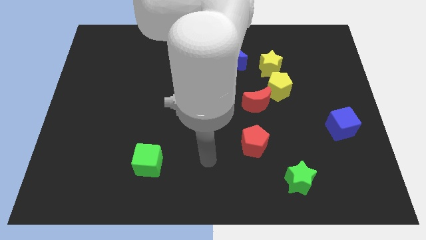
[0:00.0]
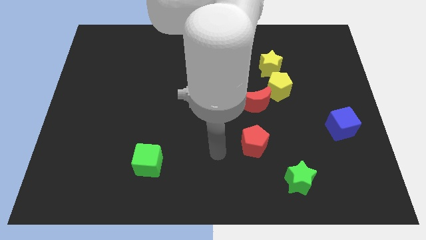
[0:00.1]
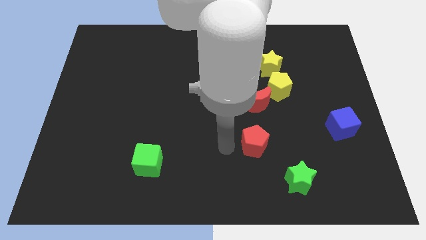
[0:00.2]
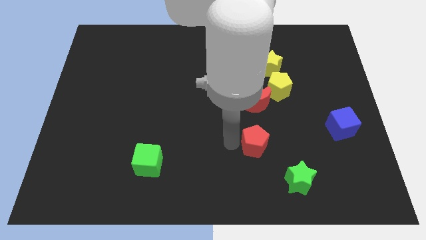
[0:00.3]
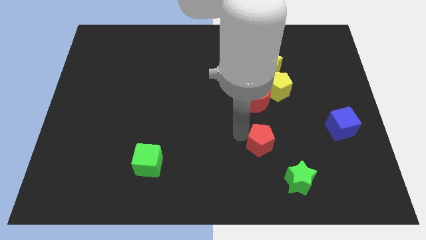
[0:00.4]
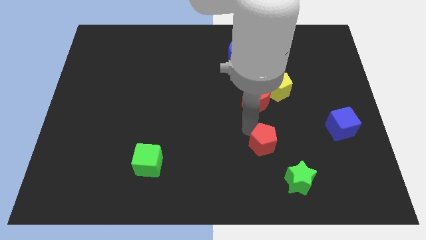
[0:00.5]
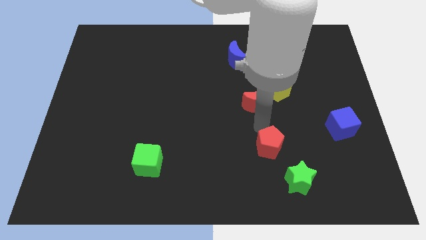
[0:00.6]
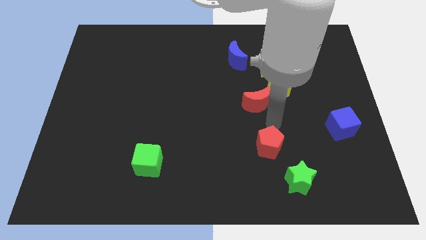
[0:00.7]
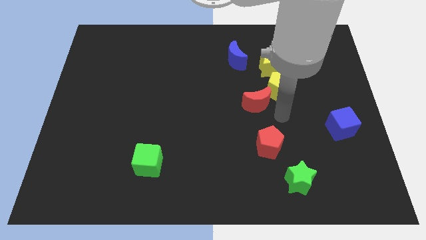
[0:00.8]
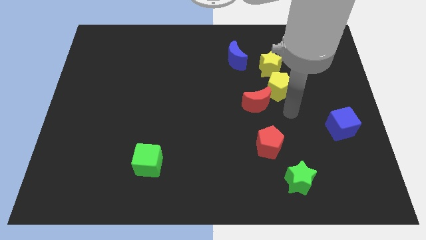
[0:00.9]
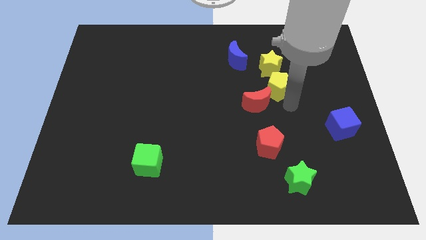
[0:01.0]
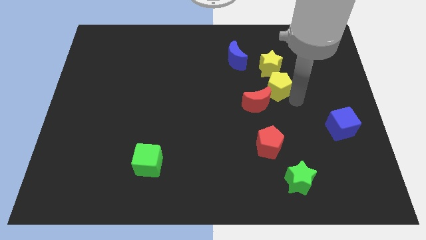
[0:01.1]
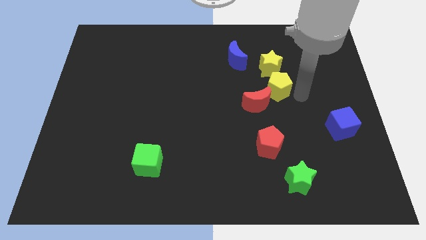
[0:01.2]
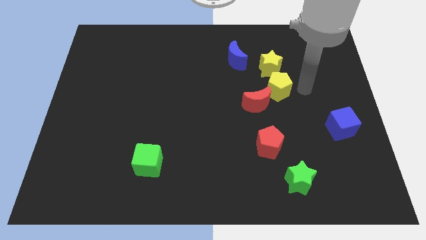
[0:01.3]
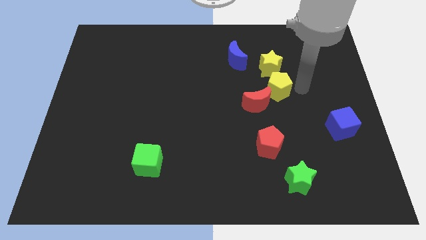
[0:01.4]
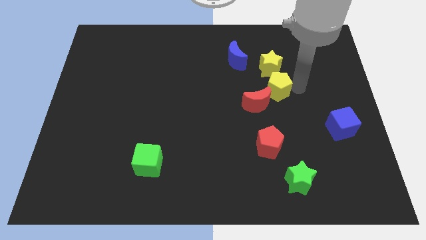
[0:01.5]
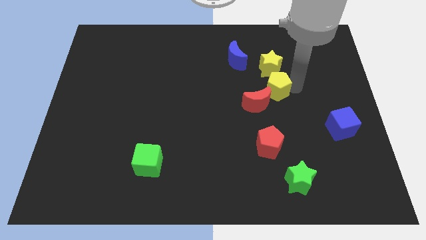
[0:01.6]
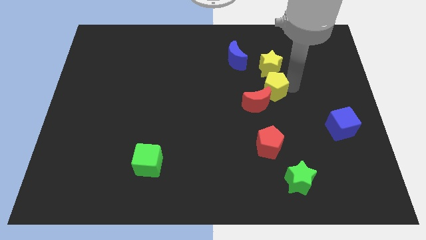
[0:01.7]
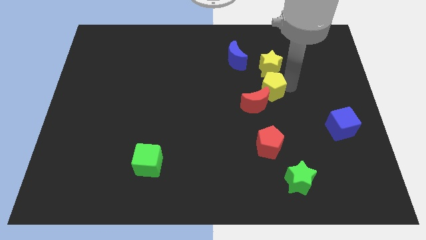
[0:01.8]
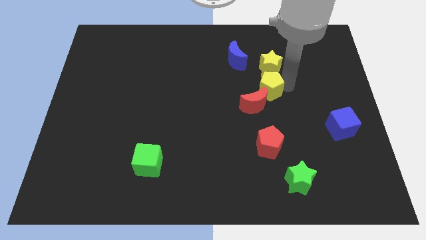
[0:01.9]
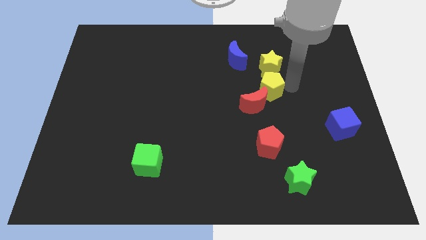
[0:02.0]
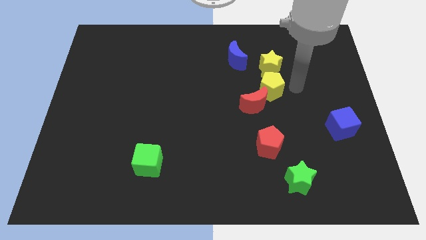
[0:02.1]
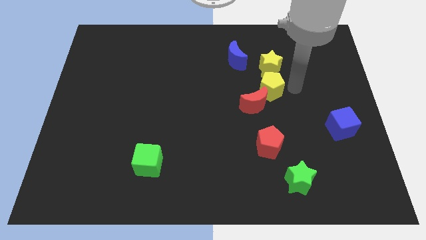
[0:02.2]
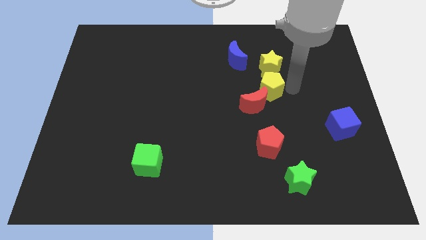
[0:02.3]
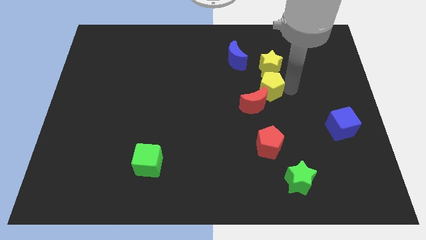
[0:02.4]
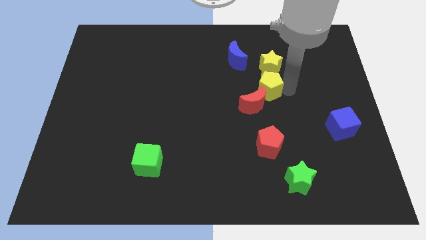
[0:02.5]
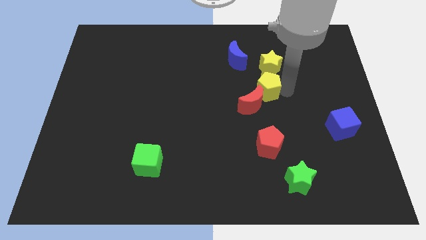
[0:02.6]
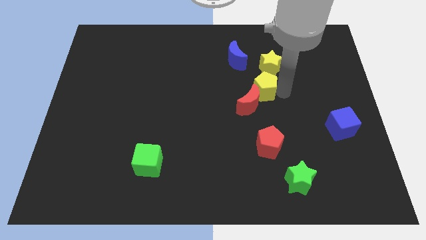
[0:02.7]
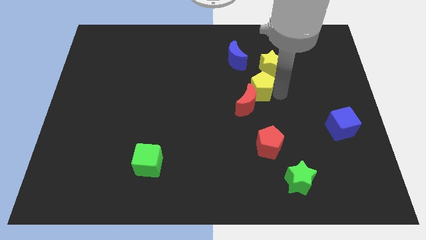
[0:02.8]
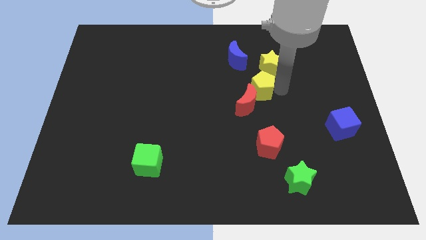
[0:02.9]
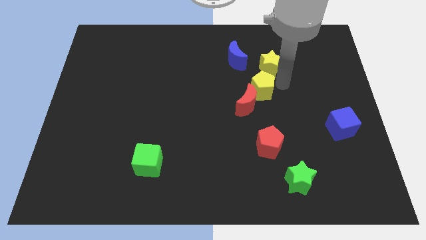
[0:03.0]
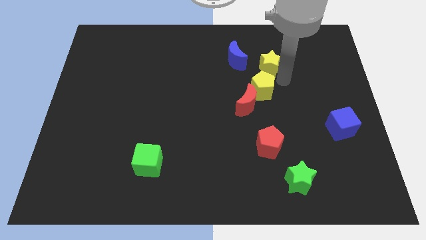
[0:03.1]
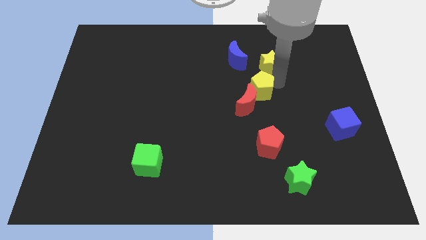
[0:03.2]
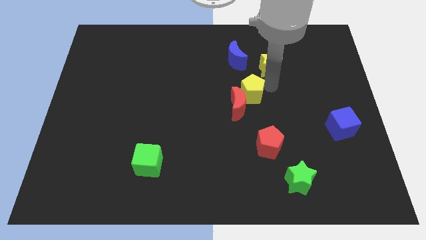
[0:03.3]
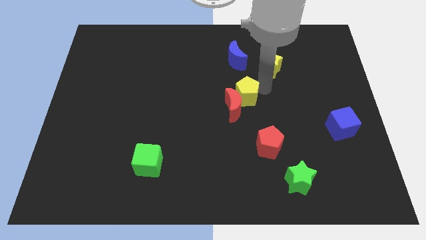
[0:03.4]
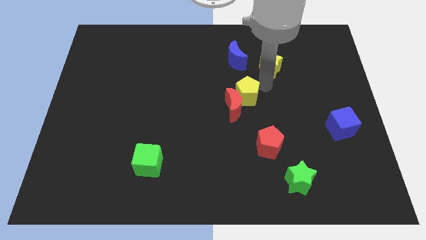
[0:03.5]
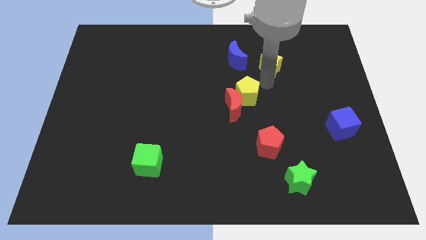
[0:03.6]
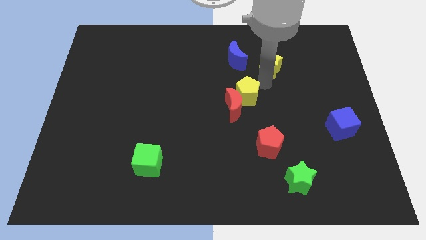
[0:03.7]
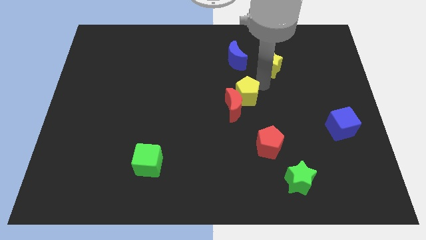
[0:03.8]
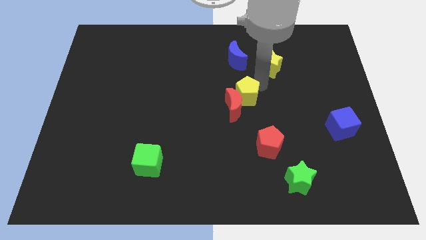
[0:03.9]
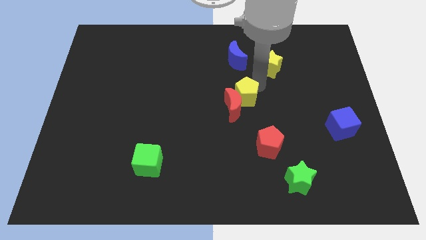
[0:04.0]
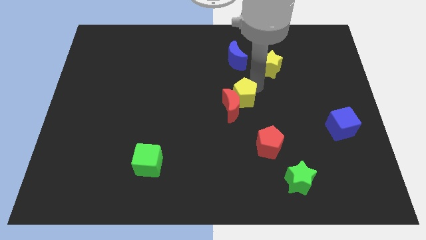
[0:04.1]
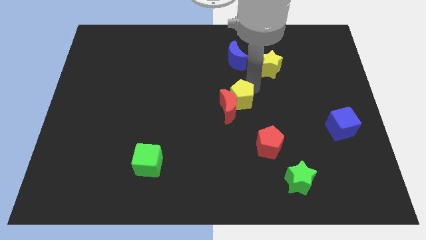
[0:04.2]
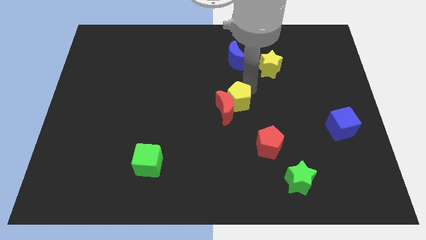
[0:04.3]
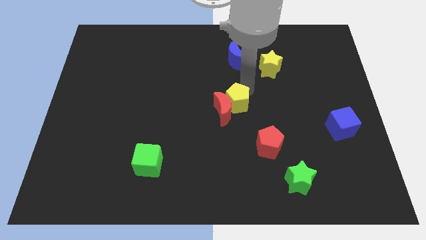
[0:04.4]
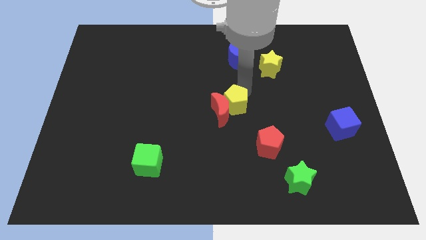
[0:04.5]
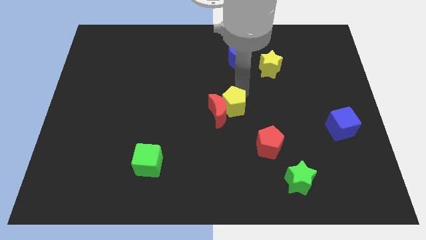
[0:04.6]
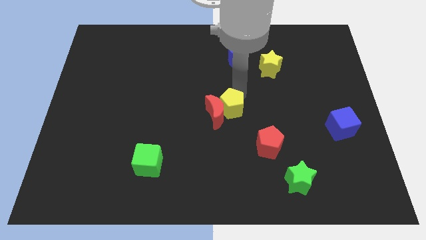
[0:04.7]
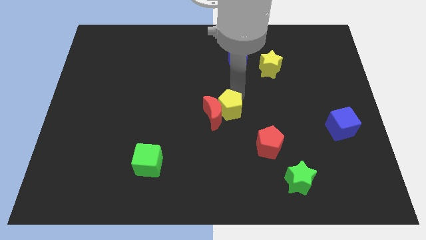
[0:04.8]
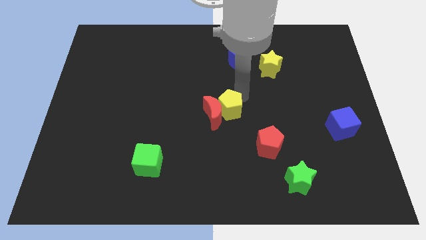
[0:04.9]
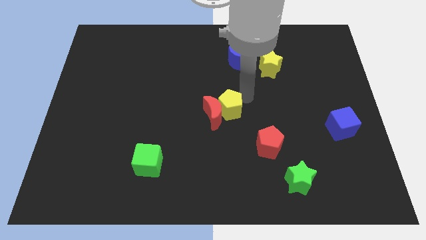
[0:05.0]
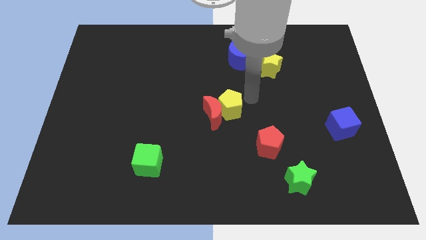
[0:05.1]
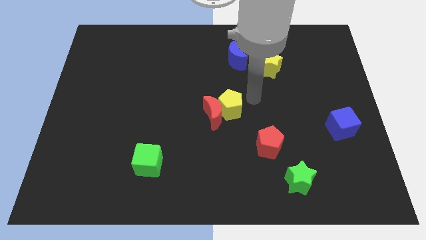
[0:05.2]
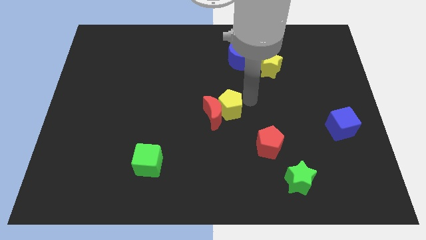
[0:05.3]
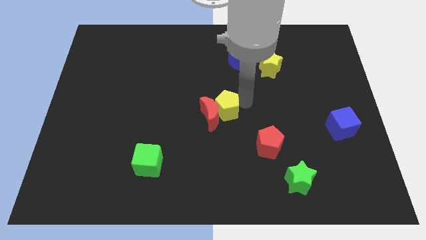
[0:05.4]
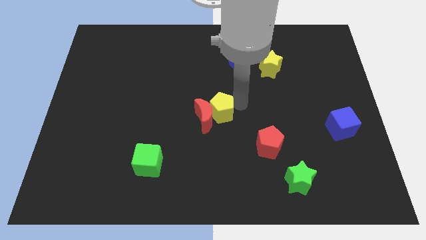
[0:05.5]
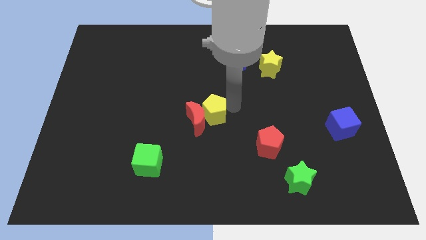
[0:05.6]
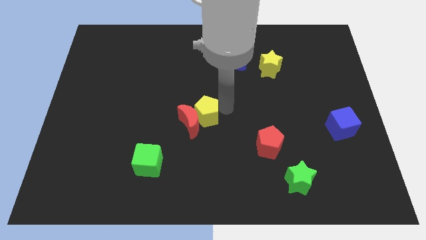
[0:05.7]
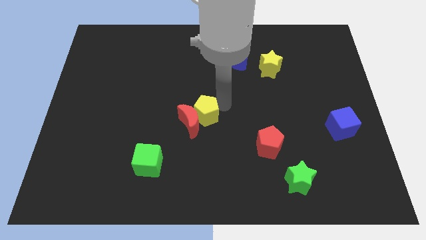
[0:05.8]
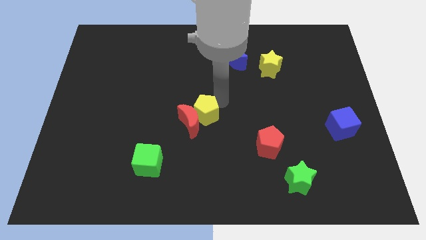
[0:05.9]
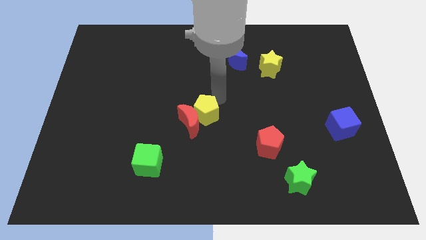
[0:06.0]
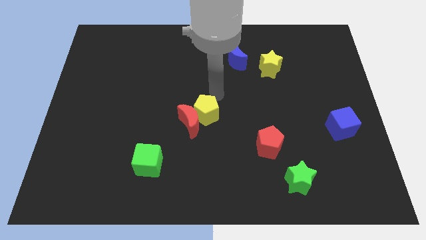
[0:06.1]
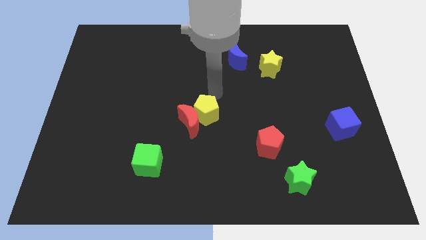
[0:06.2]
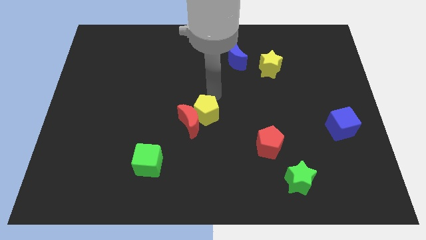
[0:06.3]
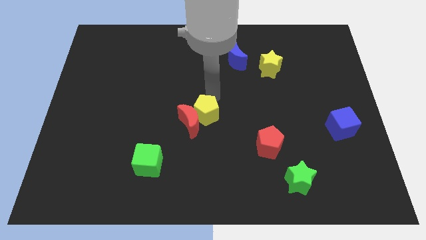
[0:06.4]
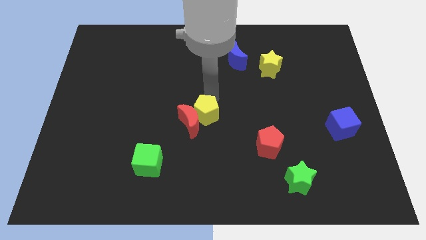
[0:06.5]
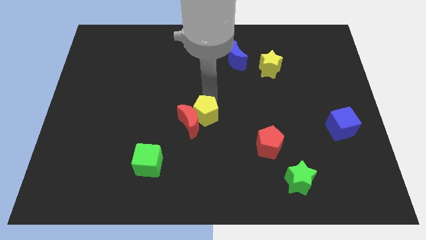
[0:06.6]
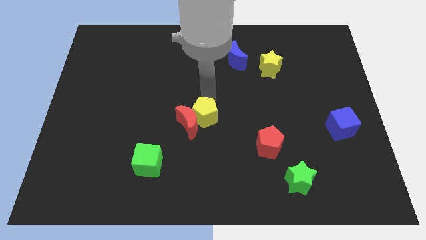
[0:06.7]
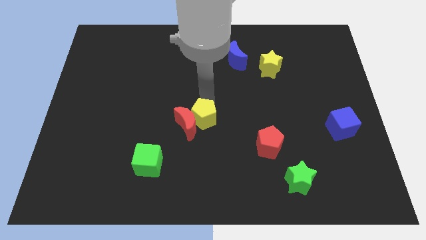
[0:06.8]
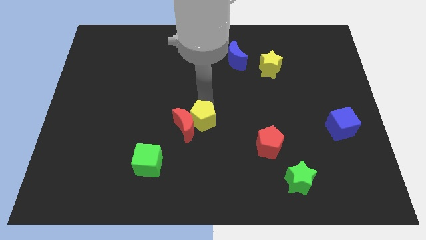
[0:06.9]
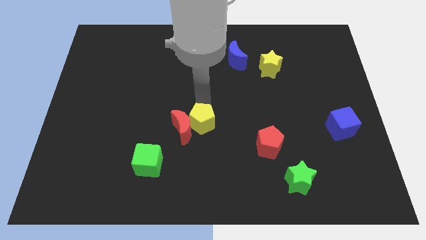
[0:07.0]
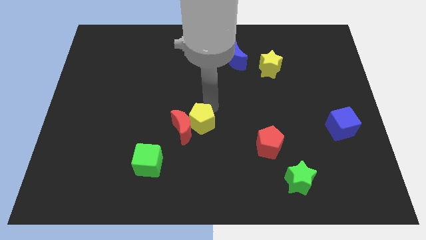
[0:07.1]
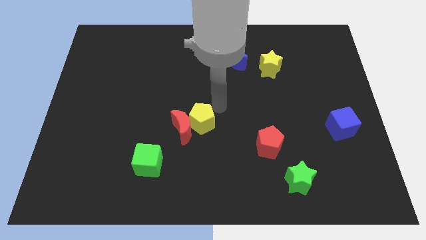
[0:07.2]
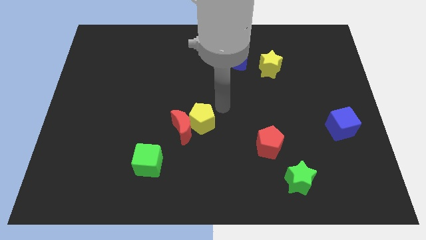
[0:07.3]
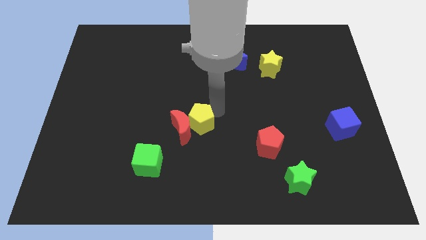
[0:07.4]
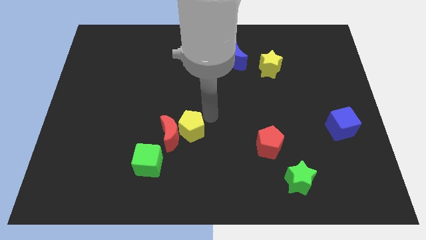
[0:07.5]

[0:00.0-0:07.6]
slide the yellow pentagon to the top right side of the green cube

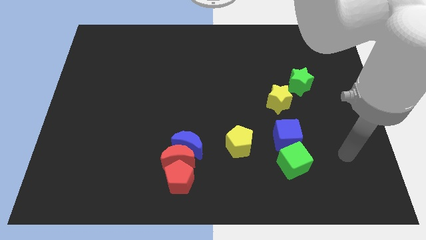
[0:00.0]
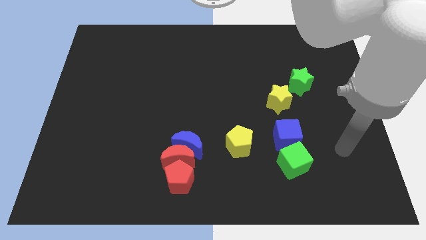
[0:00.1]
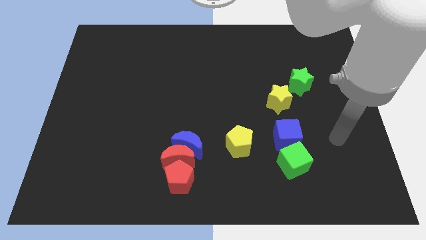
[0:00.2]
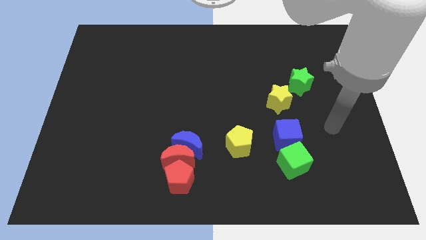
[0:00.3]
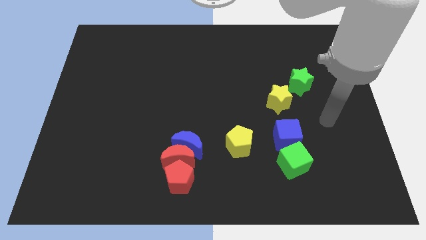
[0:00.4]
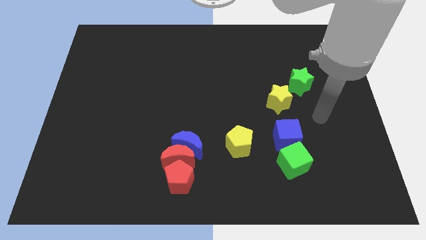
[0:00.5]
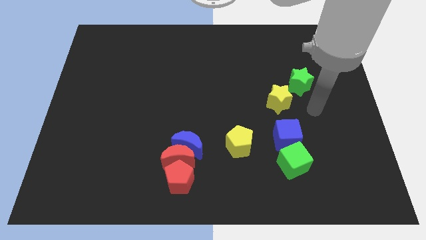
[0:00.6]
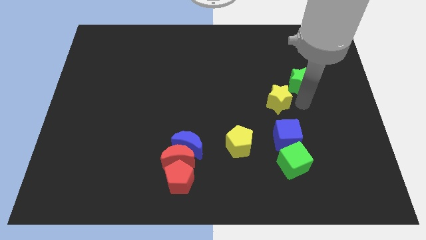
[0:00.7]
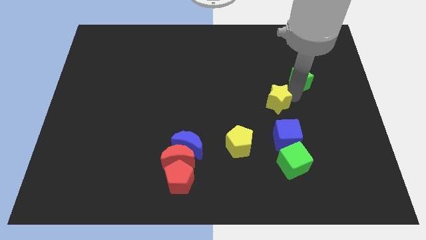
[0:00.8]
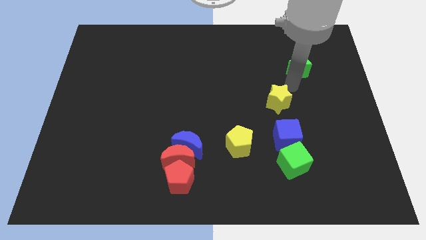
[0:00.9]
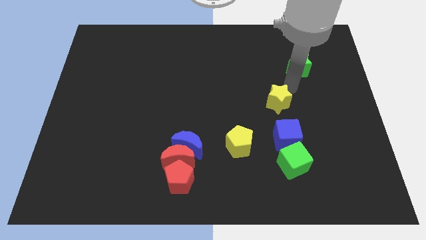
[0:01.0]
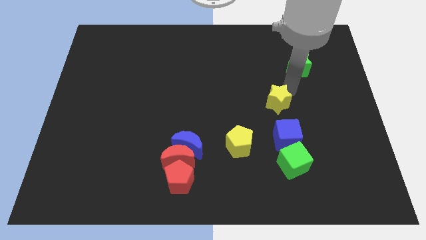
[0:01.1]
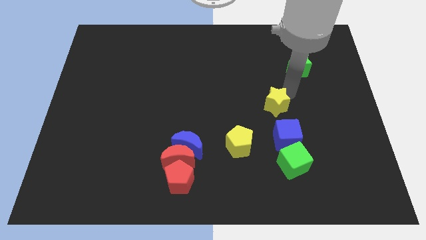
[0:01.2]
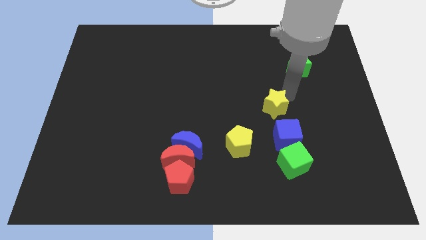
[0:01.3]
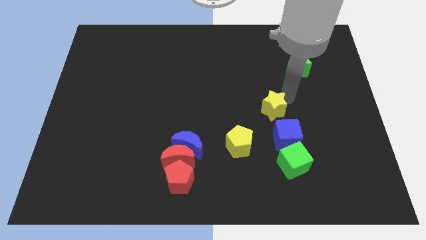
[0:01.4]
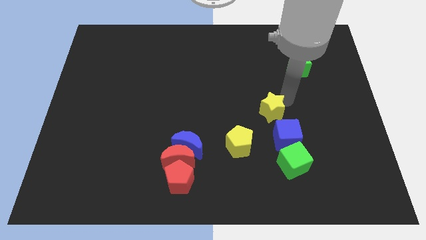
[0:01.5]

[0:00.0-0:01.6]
slide the yellow star to the top right side of the yellow pentagon
